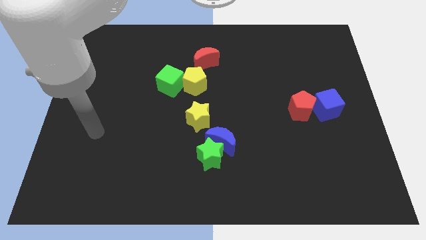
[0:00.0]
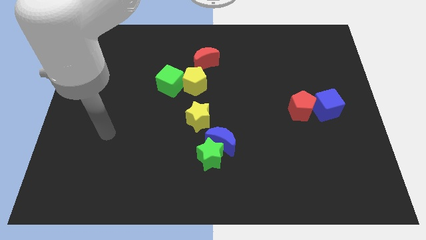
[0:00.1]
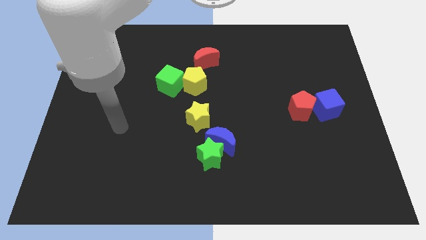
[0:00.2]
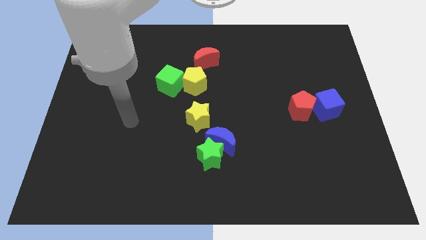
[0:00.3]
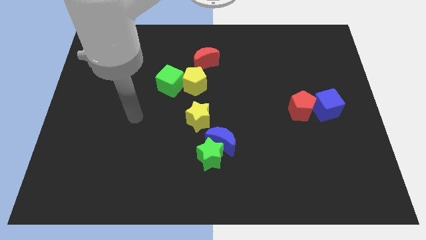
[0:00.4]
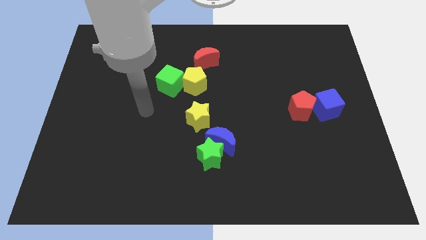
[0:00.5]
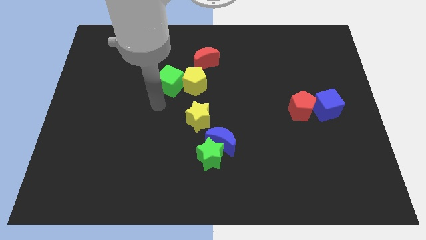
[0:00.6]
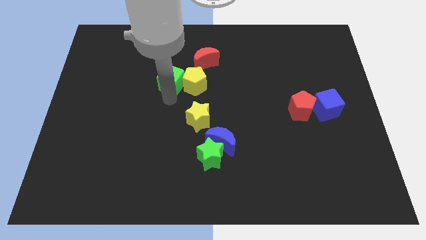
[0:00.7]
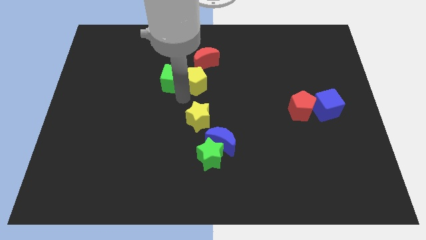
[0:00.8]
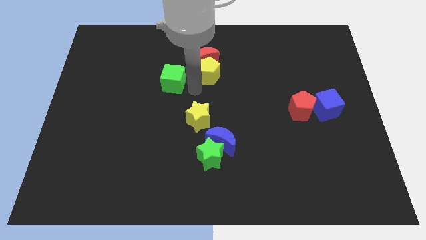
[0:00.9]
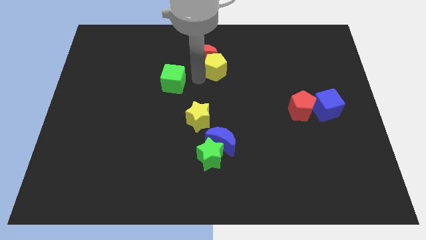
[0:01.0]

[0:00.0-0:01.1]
pull the green cube apart from the yellow pentagon

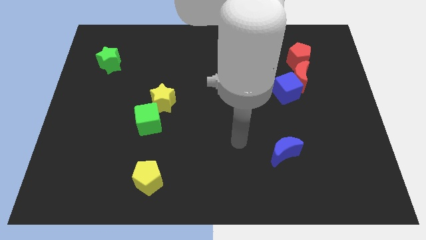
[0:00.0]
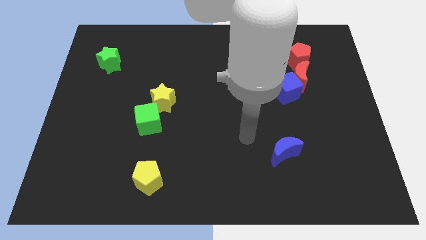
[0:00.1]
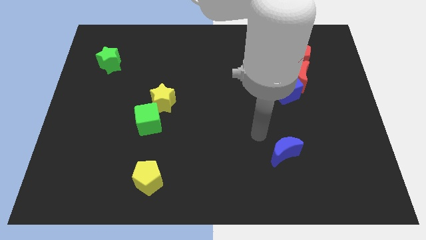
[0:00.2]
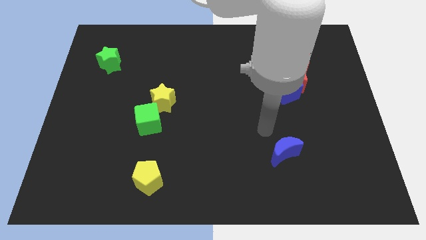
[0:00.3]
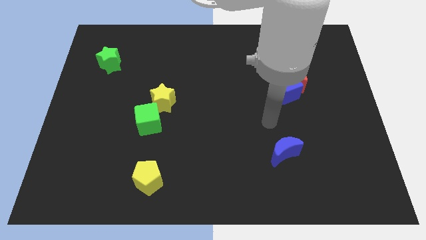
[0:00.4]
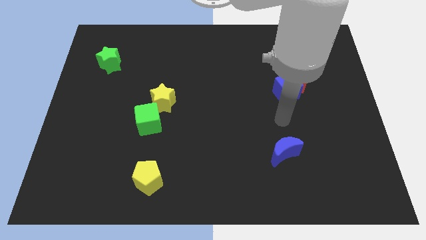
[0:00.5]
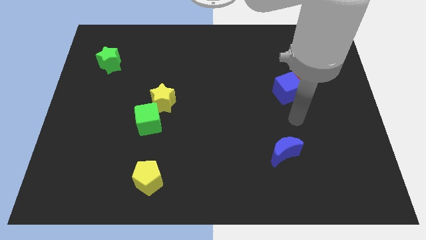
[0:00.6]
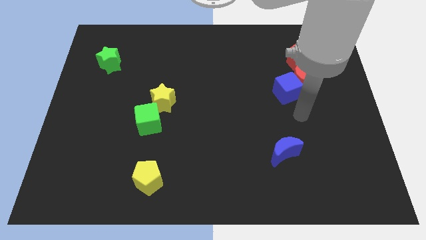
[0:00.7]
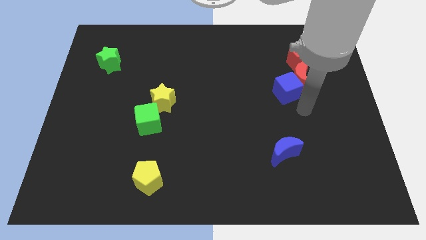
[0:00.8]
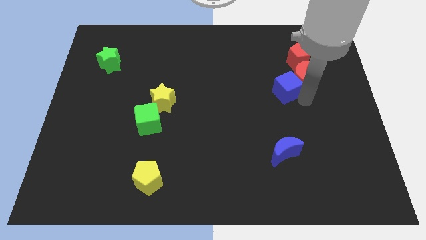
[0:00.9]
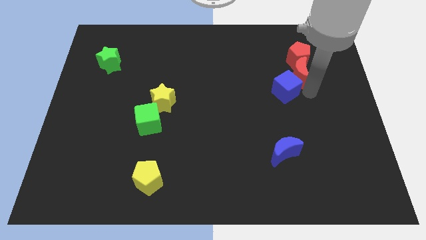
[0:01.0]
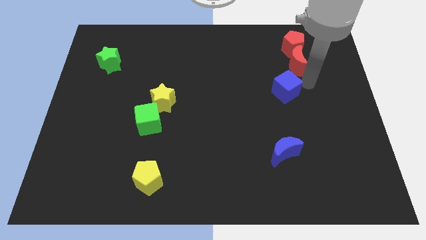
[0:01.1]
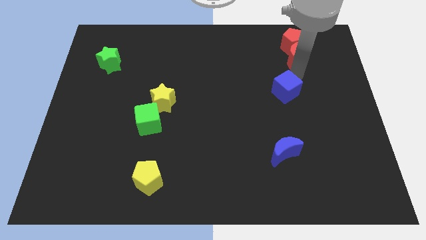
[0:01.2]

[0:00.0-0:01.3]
move the blue cube away from the red moon

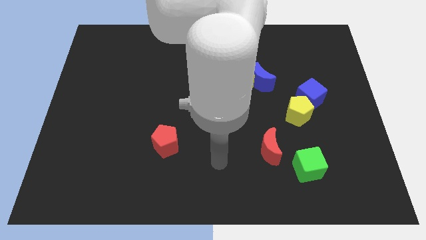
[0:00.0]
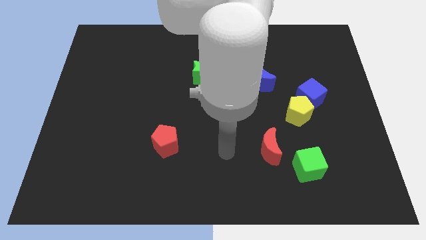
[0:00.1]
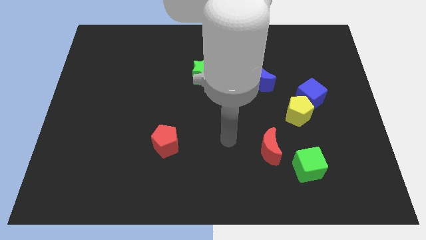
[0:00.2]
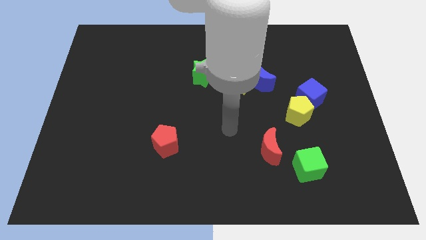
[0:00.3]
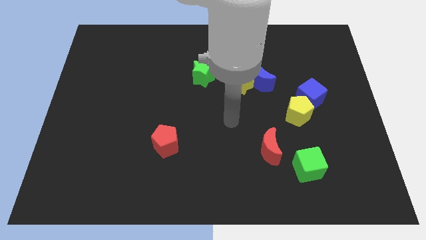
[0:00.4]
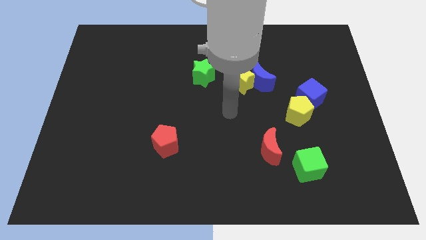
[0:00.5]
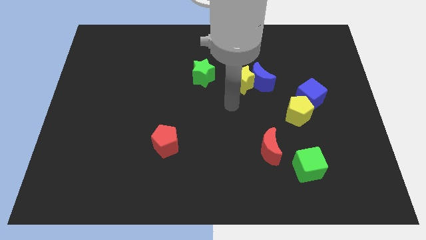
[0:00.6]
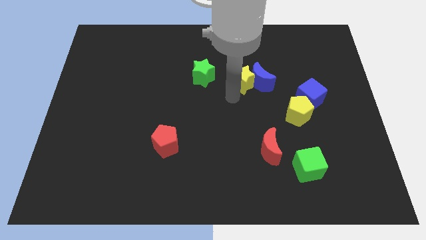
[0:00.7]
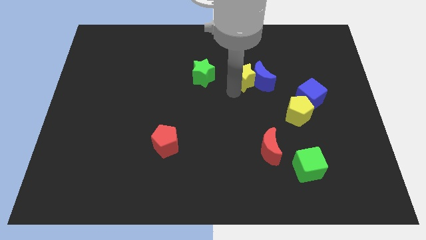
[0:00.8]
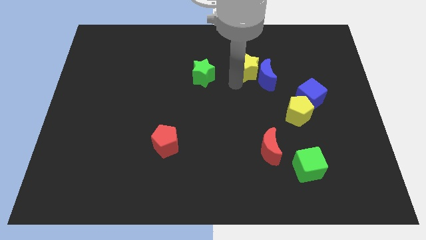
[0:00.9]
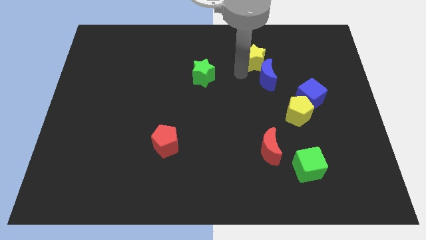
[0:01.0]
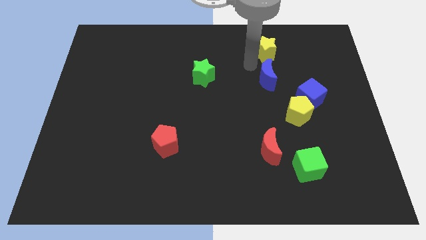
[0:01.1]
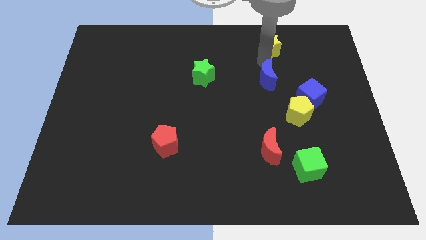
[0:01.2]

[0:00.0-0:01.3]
separate the blue moon from the yellow star

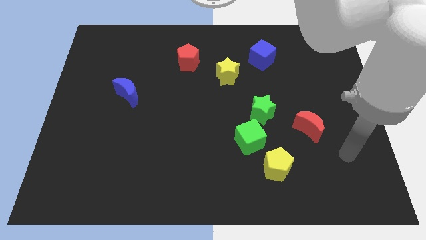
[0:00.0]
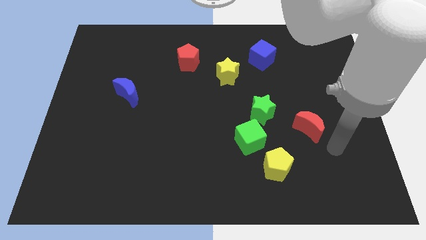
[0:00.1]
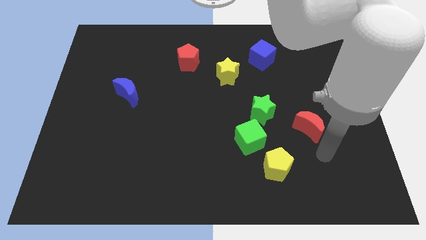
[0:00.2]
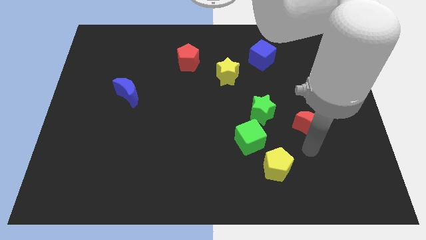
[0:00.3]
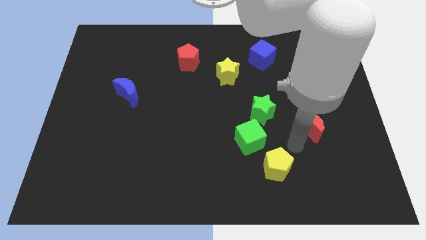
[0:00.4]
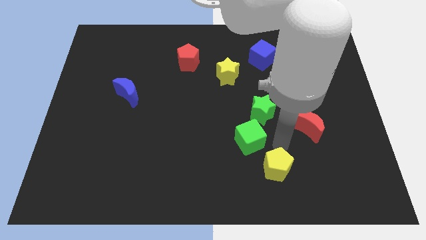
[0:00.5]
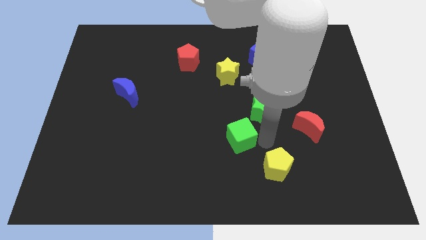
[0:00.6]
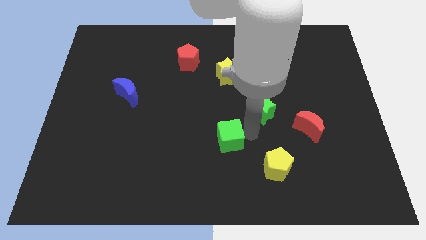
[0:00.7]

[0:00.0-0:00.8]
pull the green star apart from the green cube

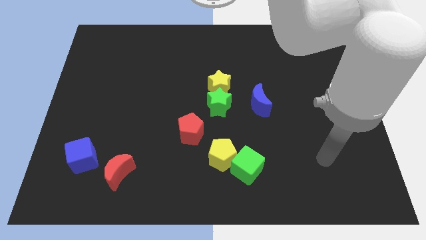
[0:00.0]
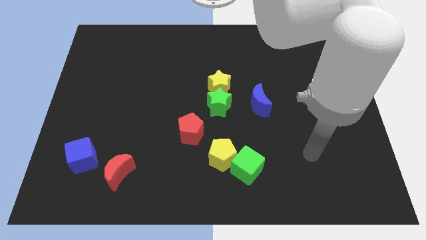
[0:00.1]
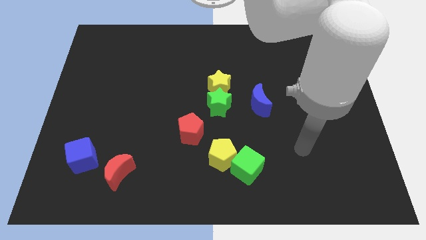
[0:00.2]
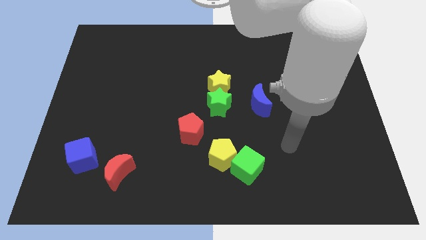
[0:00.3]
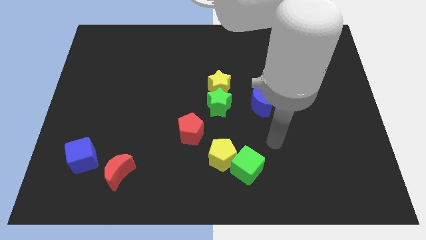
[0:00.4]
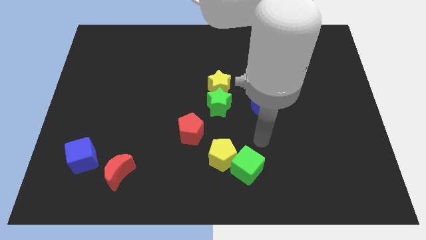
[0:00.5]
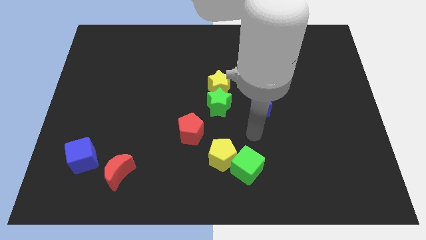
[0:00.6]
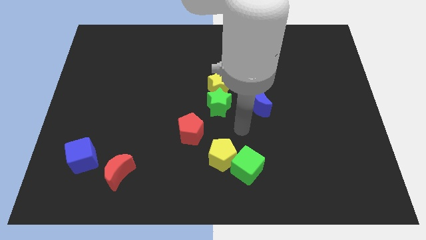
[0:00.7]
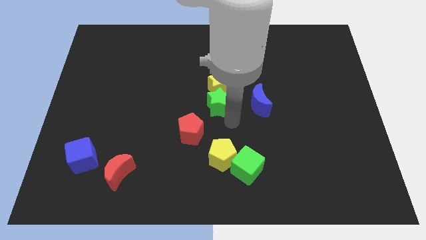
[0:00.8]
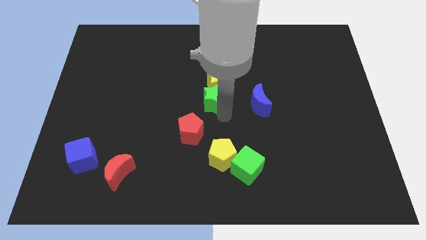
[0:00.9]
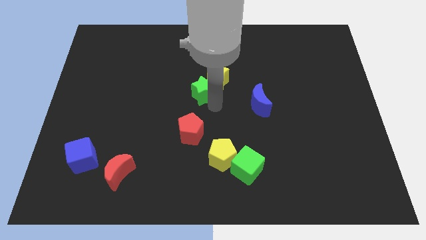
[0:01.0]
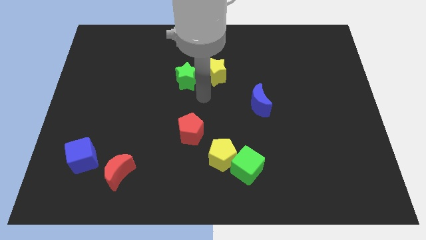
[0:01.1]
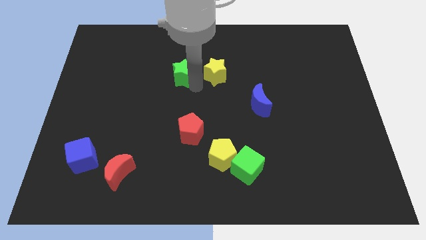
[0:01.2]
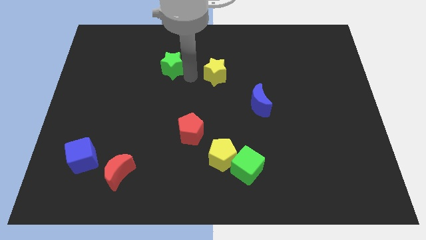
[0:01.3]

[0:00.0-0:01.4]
separate the yellow star from the green star

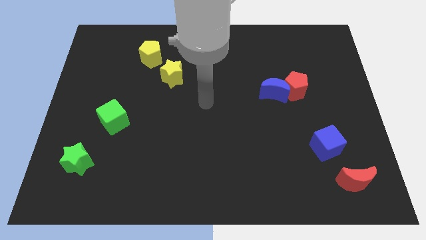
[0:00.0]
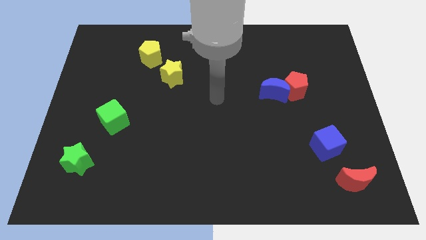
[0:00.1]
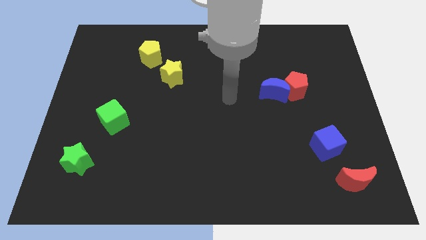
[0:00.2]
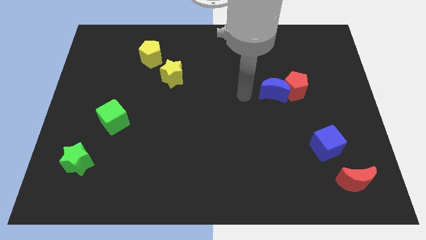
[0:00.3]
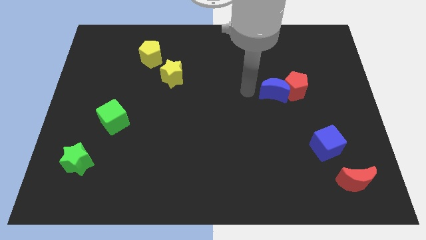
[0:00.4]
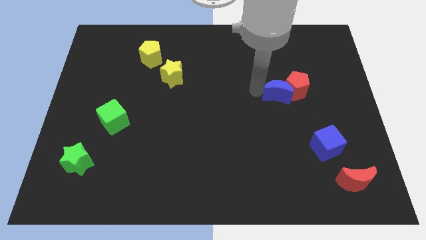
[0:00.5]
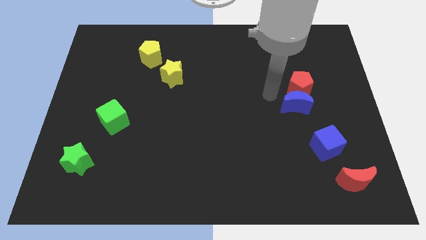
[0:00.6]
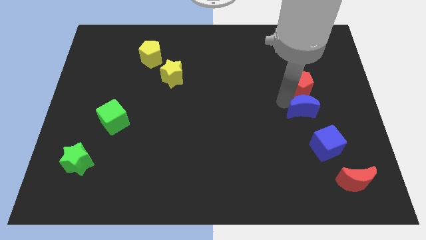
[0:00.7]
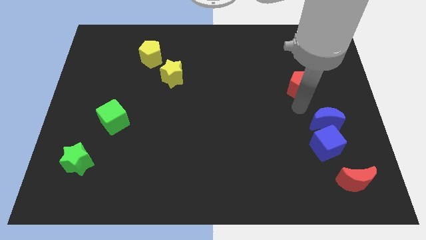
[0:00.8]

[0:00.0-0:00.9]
pull the red pentagon apart from the blue moon

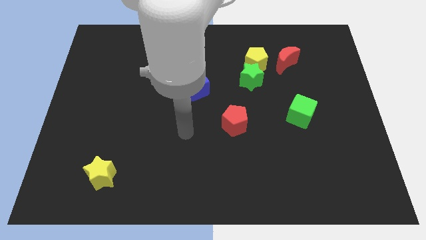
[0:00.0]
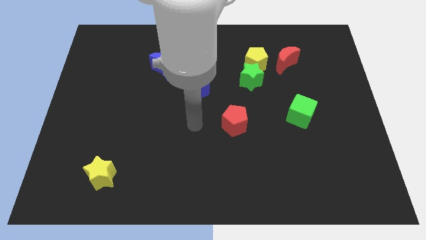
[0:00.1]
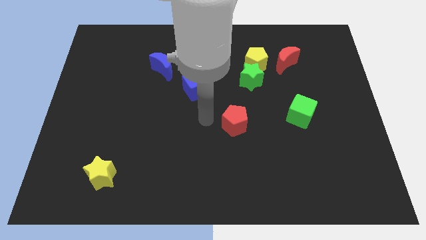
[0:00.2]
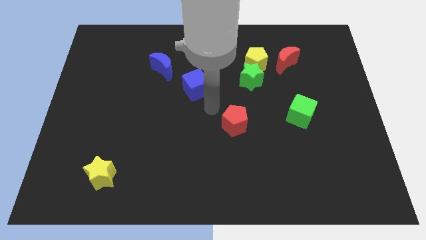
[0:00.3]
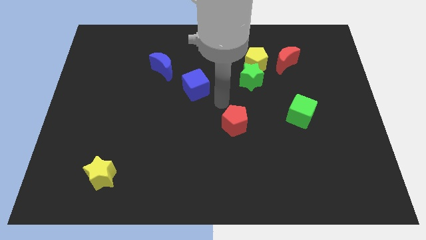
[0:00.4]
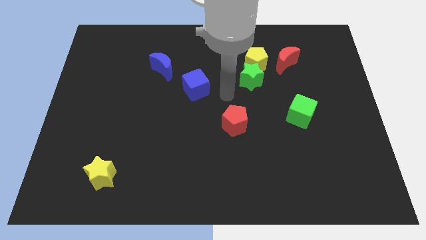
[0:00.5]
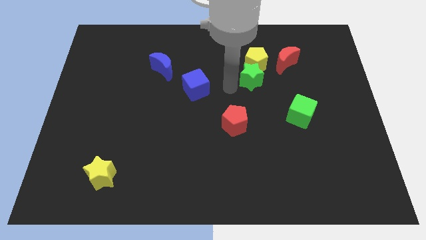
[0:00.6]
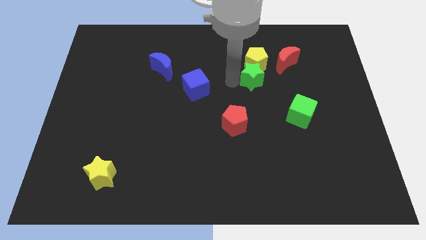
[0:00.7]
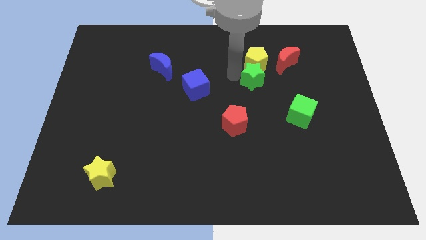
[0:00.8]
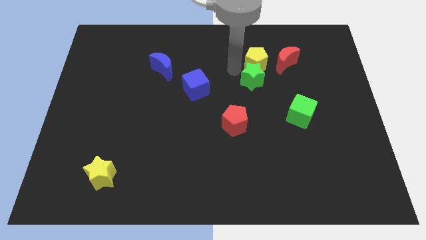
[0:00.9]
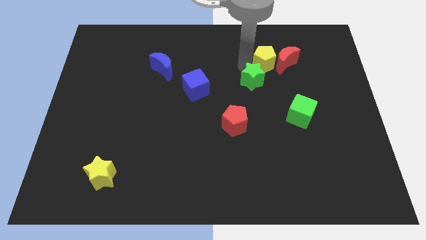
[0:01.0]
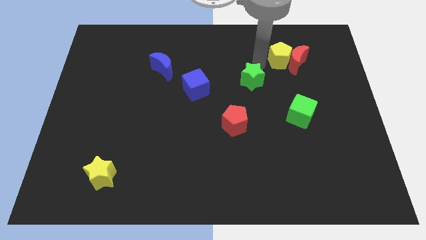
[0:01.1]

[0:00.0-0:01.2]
move the green star away from the yellow pentagon

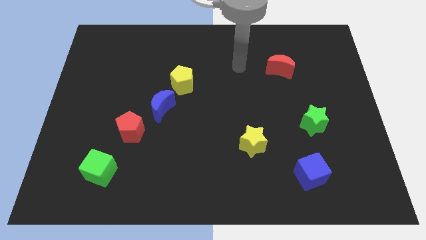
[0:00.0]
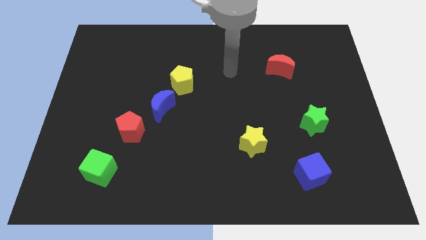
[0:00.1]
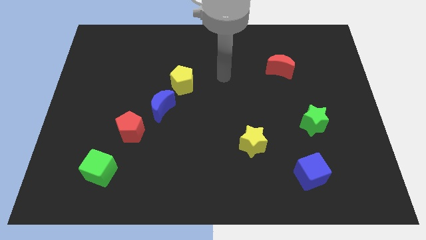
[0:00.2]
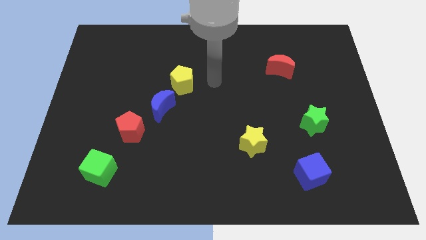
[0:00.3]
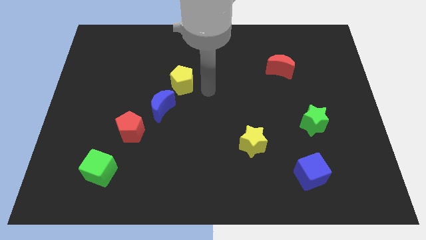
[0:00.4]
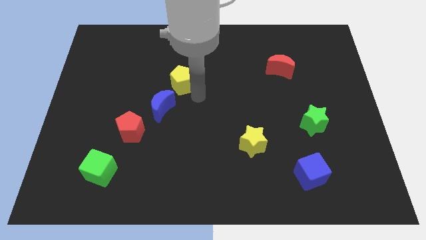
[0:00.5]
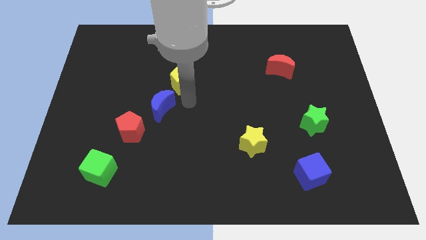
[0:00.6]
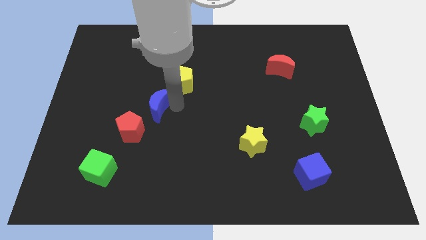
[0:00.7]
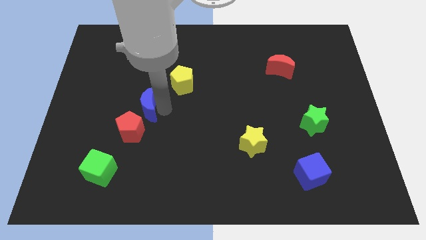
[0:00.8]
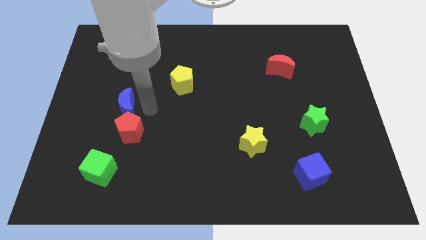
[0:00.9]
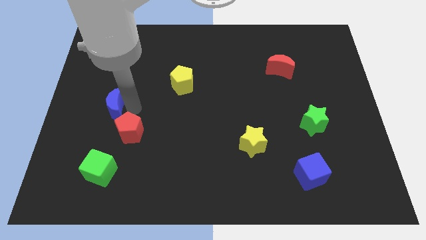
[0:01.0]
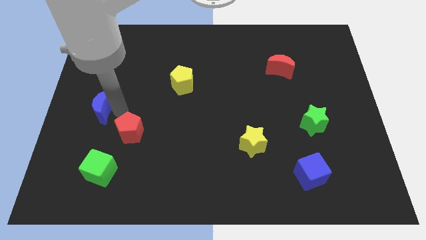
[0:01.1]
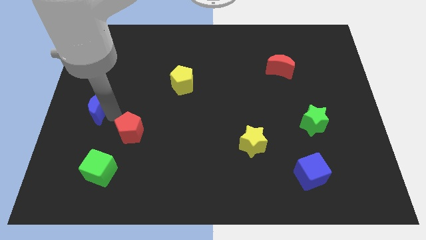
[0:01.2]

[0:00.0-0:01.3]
separate the red pentagon from the blue moon
